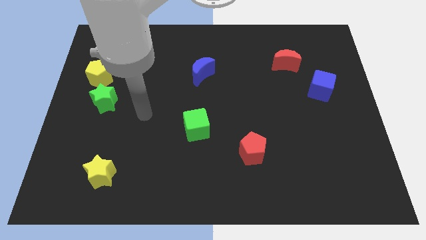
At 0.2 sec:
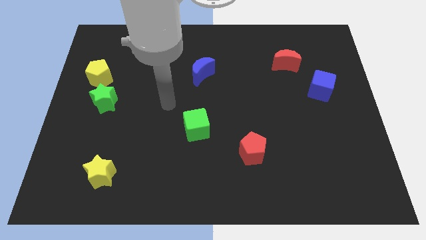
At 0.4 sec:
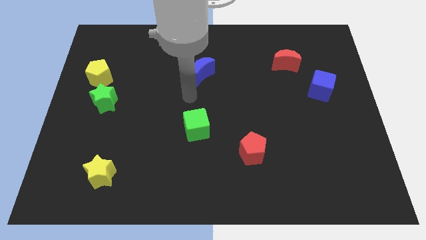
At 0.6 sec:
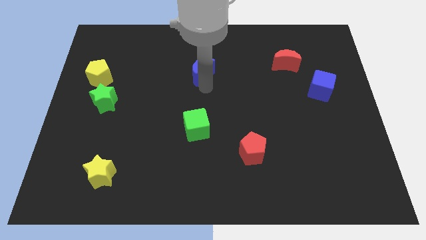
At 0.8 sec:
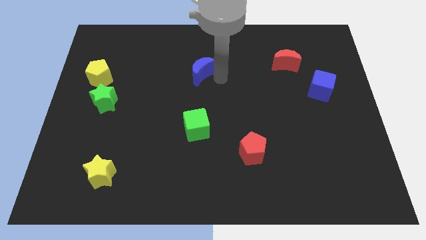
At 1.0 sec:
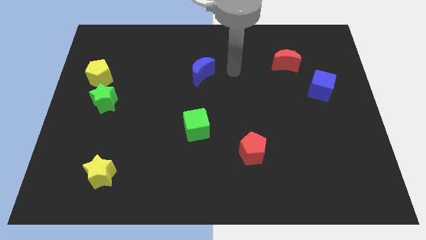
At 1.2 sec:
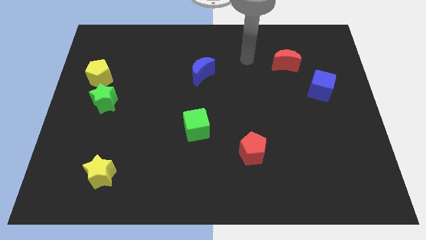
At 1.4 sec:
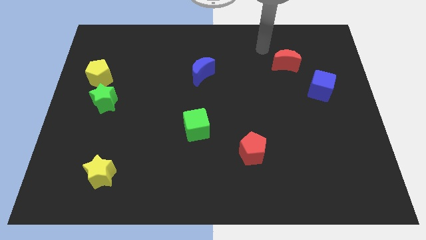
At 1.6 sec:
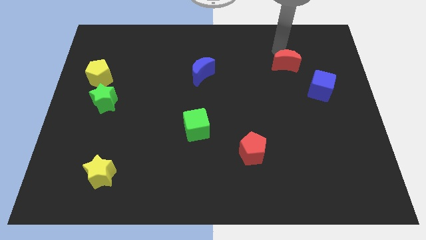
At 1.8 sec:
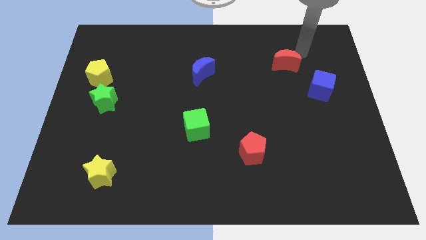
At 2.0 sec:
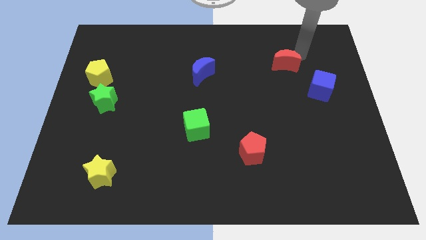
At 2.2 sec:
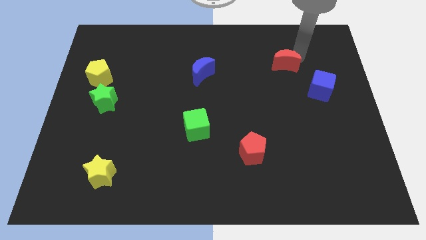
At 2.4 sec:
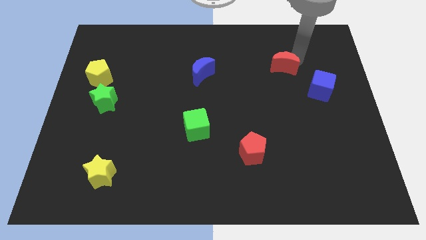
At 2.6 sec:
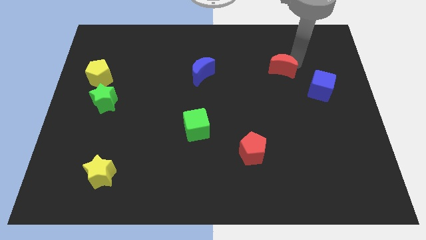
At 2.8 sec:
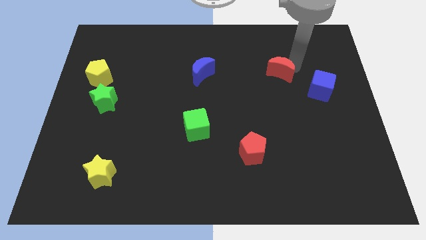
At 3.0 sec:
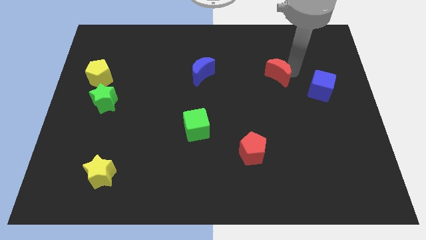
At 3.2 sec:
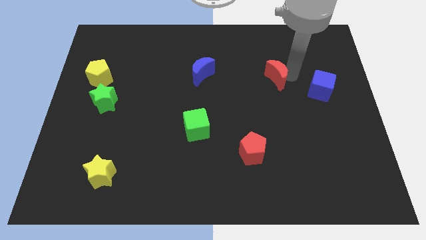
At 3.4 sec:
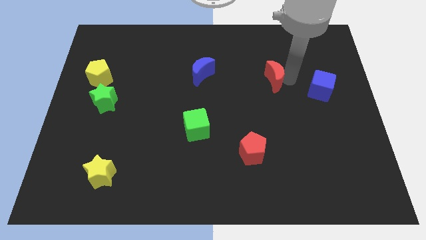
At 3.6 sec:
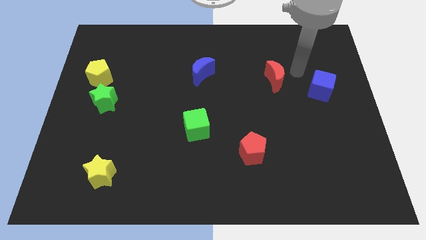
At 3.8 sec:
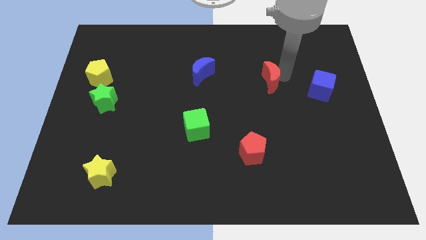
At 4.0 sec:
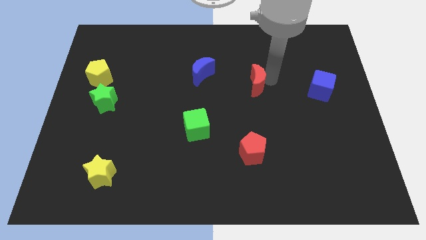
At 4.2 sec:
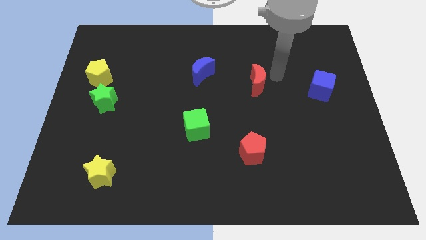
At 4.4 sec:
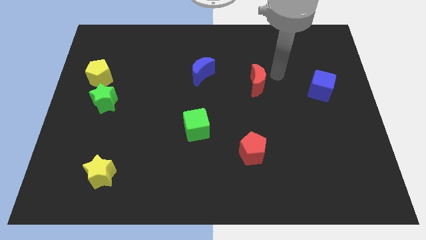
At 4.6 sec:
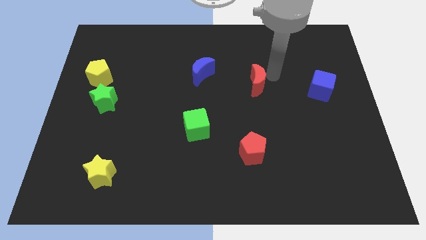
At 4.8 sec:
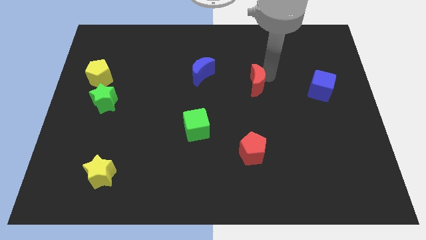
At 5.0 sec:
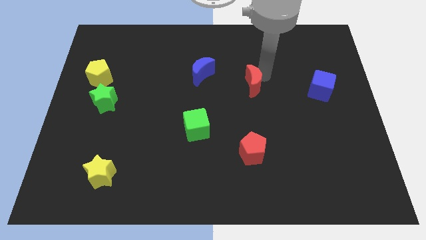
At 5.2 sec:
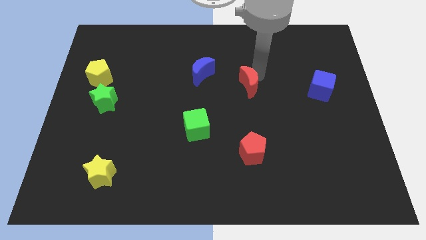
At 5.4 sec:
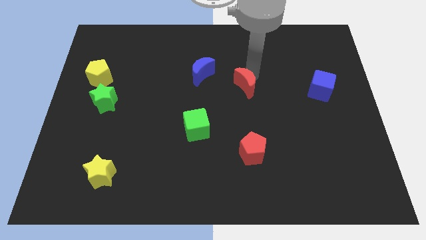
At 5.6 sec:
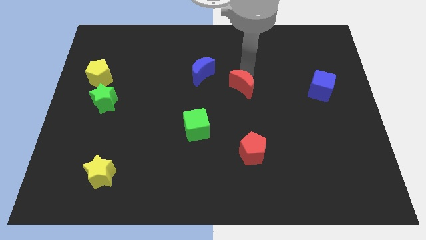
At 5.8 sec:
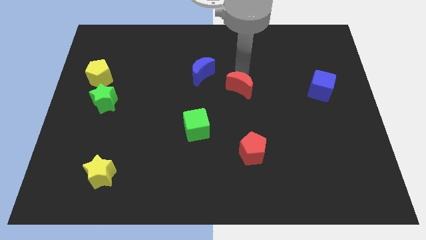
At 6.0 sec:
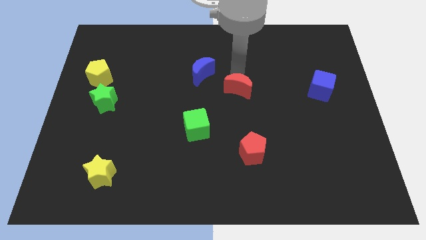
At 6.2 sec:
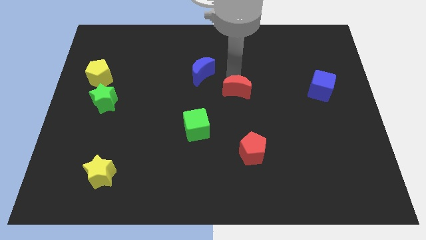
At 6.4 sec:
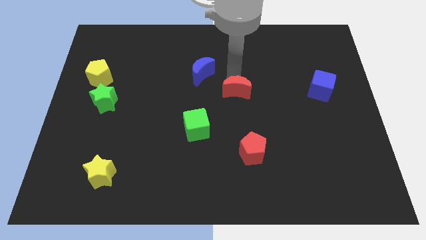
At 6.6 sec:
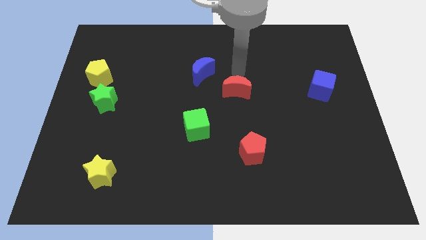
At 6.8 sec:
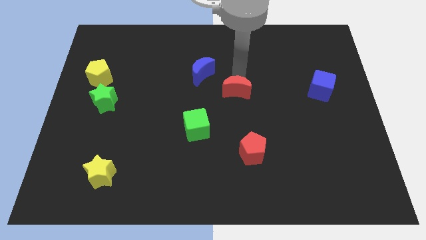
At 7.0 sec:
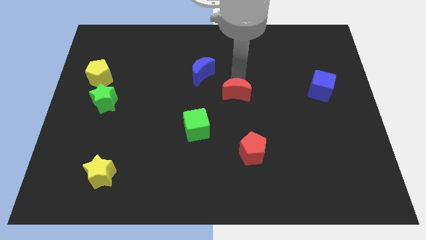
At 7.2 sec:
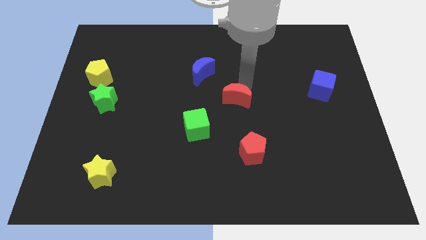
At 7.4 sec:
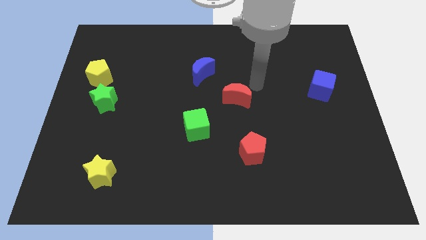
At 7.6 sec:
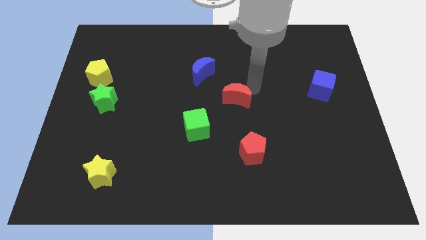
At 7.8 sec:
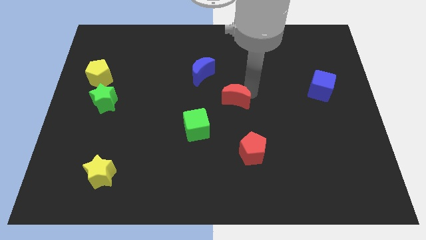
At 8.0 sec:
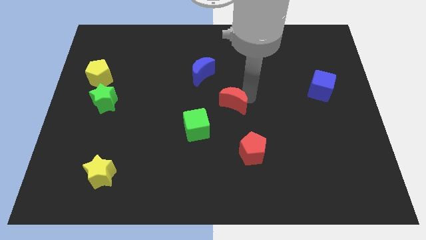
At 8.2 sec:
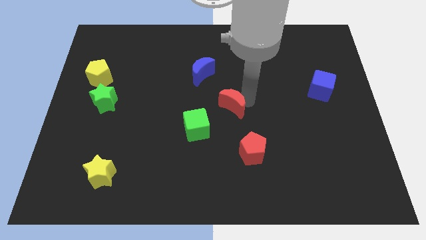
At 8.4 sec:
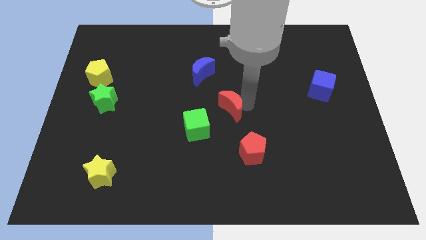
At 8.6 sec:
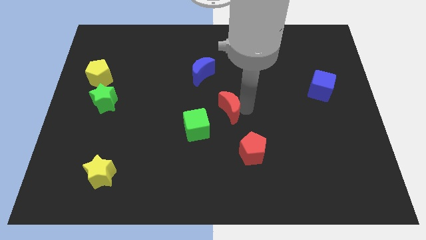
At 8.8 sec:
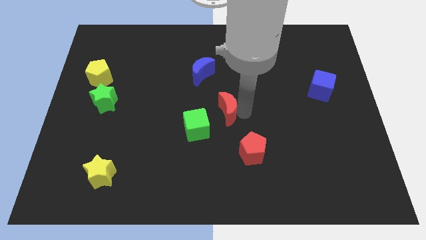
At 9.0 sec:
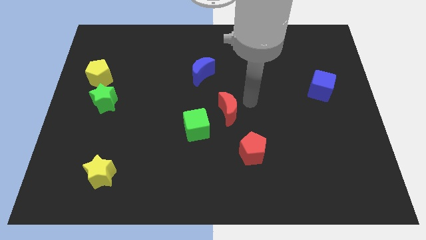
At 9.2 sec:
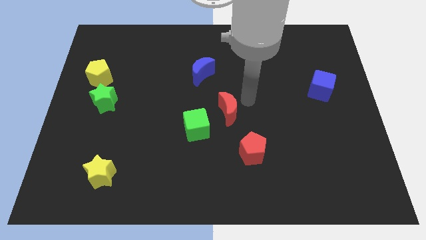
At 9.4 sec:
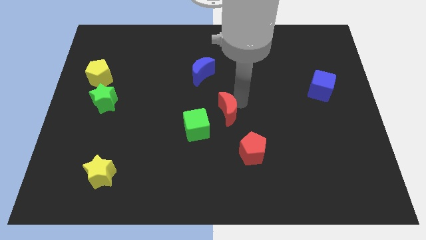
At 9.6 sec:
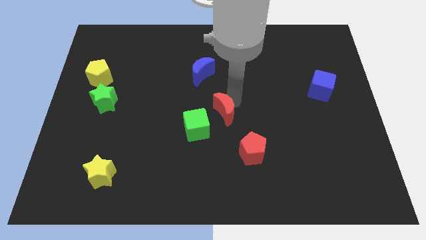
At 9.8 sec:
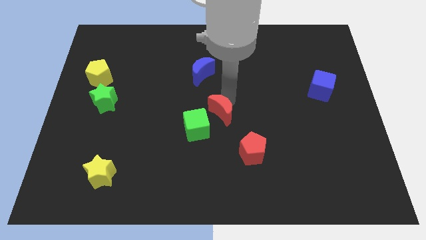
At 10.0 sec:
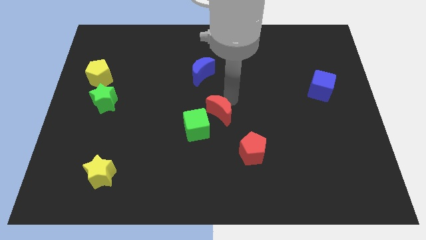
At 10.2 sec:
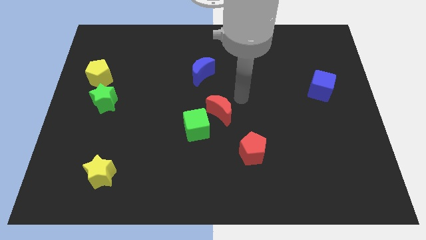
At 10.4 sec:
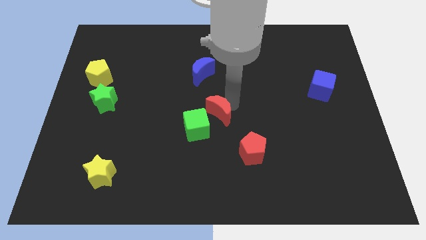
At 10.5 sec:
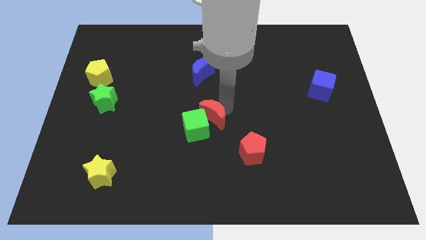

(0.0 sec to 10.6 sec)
move the red moon towards the green cube

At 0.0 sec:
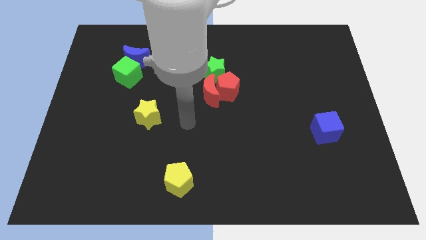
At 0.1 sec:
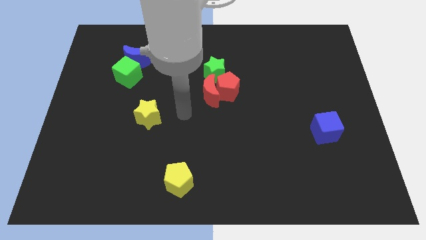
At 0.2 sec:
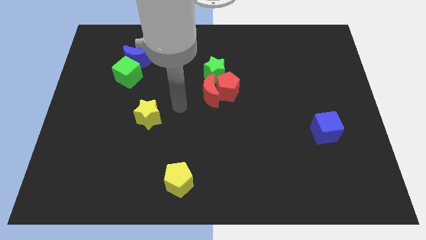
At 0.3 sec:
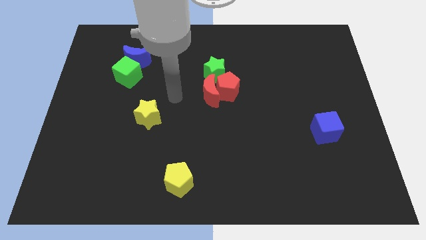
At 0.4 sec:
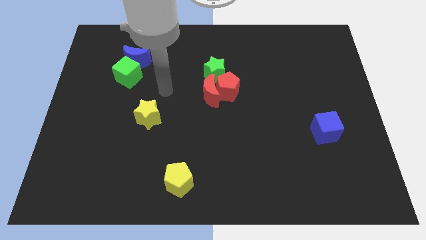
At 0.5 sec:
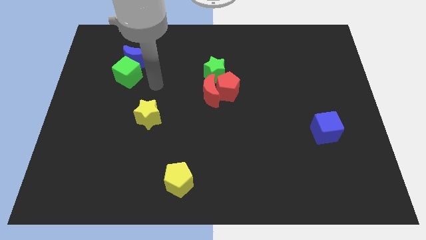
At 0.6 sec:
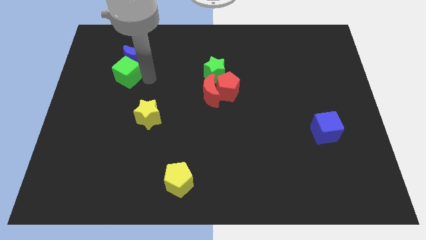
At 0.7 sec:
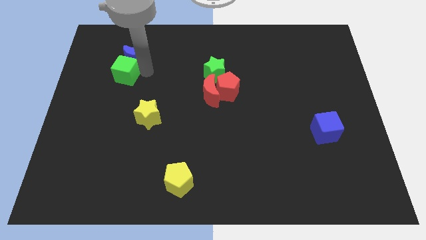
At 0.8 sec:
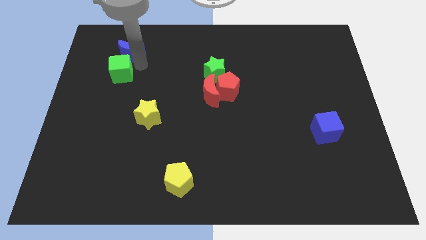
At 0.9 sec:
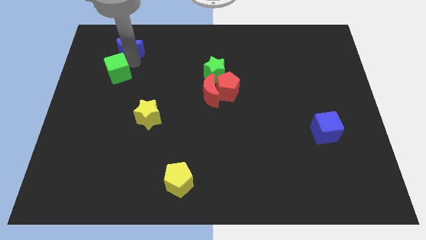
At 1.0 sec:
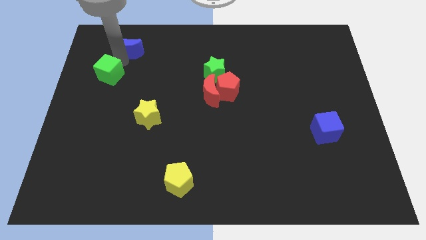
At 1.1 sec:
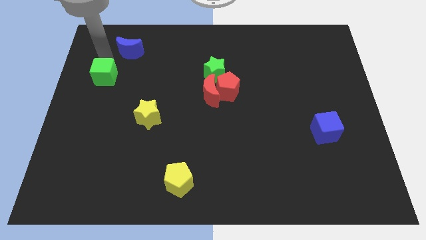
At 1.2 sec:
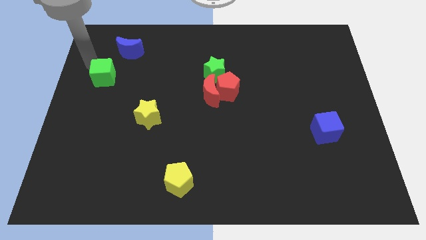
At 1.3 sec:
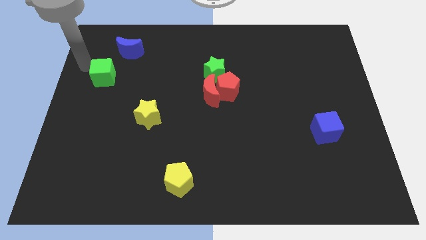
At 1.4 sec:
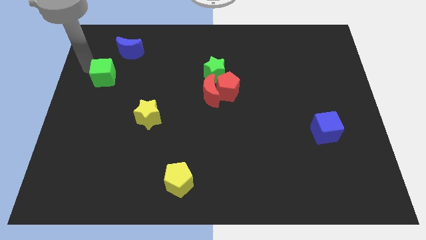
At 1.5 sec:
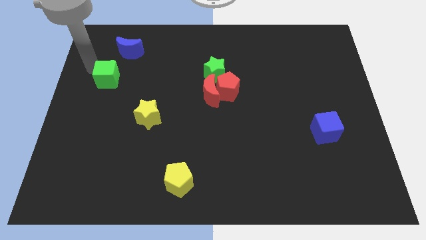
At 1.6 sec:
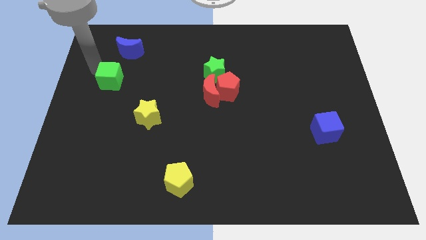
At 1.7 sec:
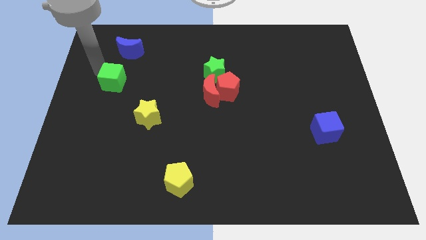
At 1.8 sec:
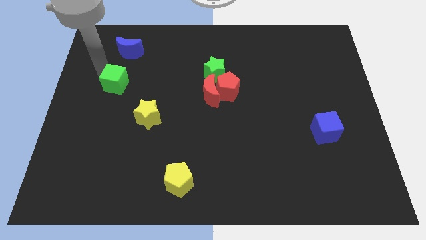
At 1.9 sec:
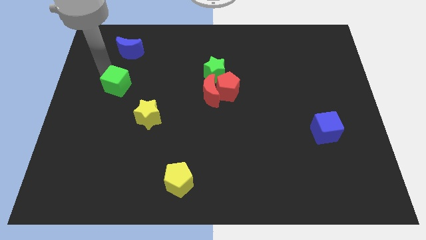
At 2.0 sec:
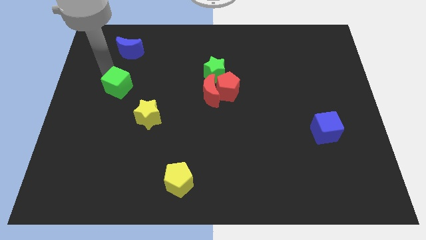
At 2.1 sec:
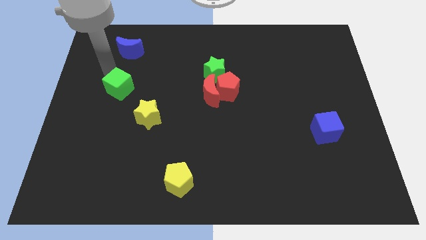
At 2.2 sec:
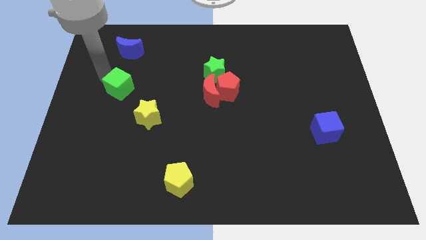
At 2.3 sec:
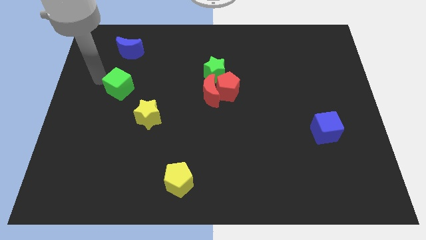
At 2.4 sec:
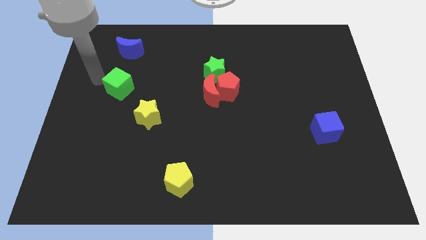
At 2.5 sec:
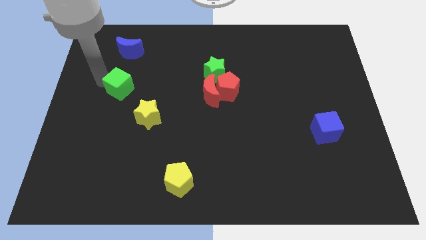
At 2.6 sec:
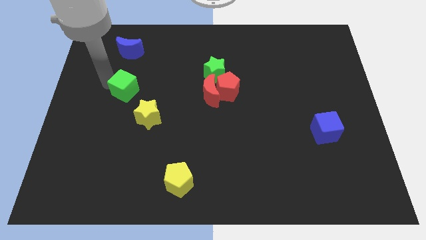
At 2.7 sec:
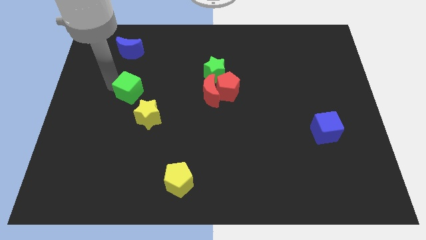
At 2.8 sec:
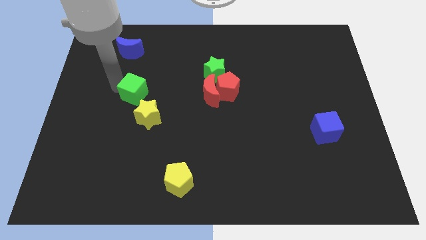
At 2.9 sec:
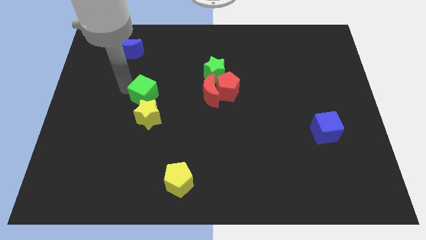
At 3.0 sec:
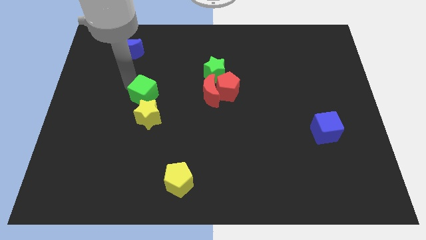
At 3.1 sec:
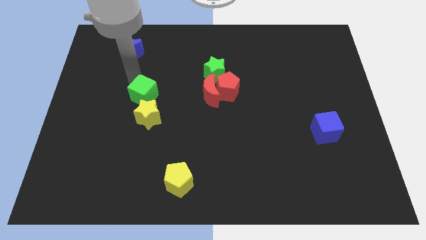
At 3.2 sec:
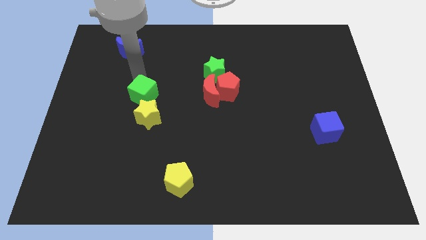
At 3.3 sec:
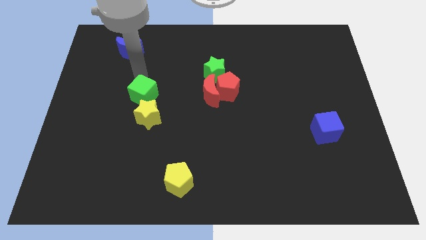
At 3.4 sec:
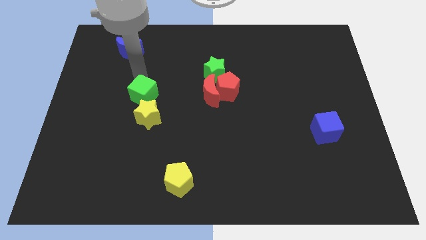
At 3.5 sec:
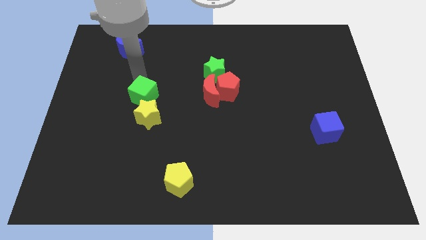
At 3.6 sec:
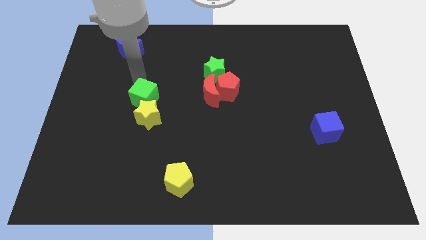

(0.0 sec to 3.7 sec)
move the green cube close to the yellow star
